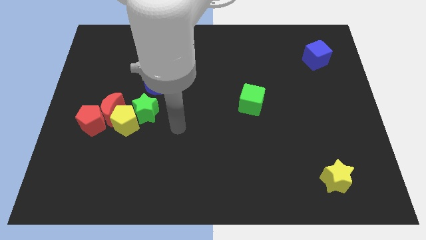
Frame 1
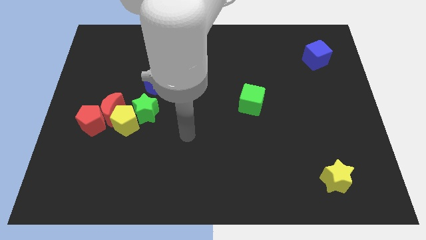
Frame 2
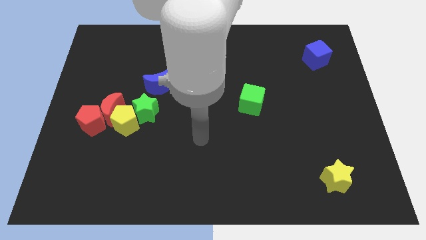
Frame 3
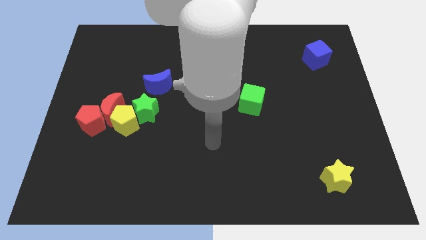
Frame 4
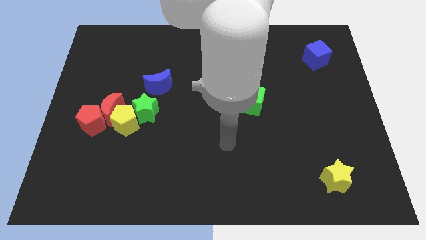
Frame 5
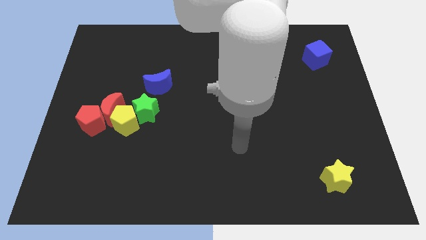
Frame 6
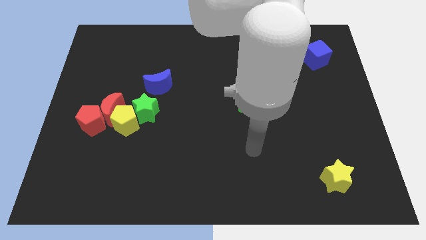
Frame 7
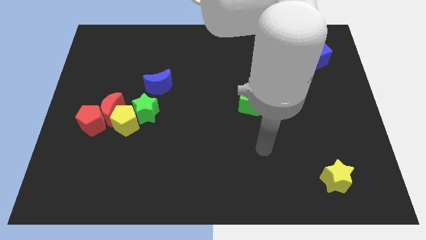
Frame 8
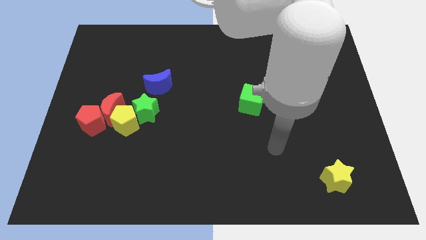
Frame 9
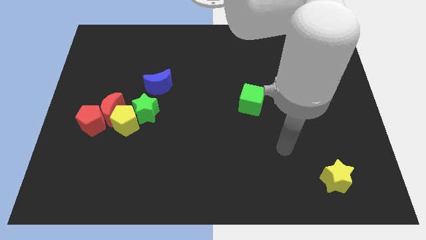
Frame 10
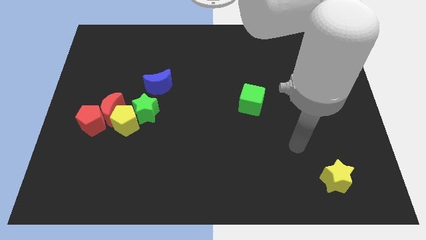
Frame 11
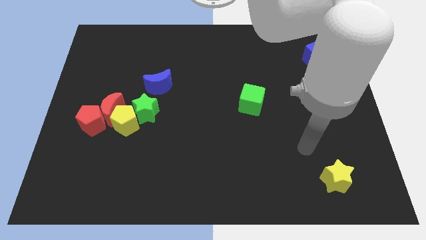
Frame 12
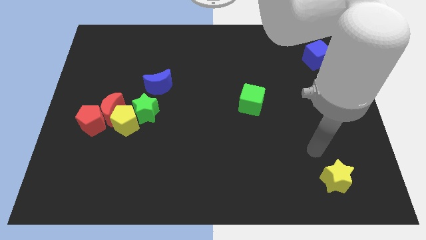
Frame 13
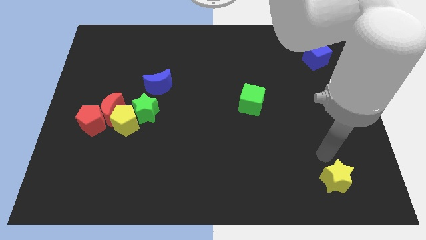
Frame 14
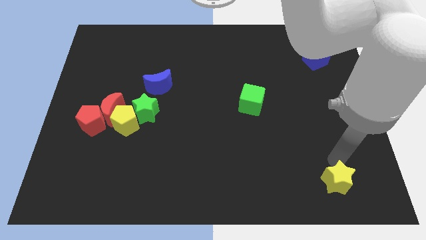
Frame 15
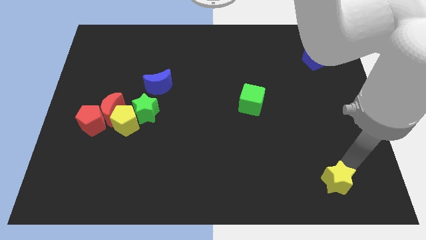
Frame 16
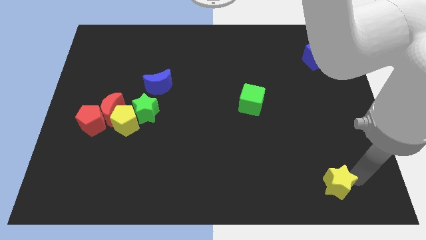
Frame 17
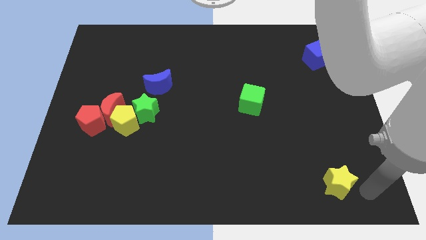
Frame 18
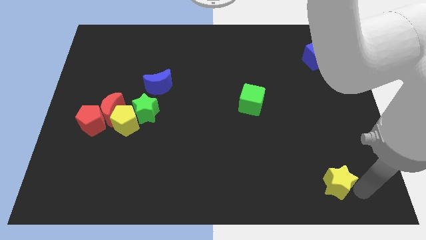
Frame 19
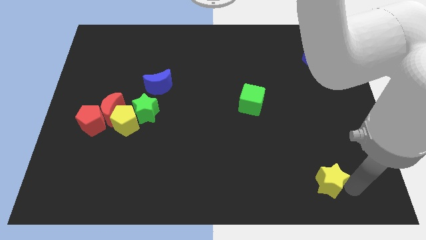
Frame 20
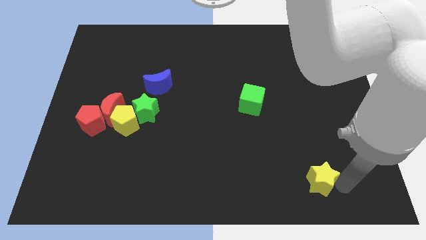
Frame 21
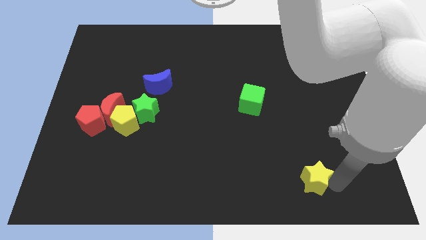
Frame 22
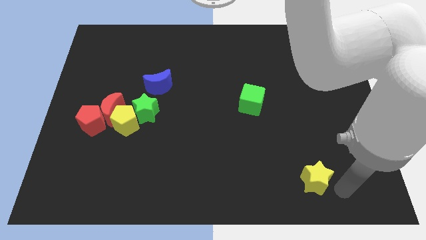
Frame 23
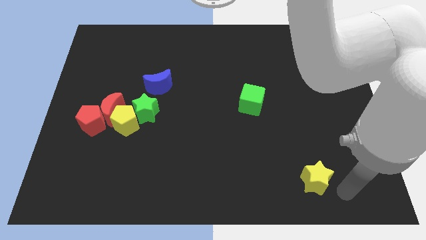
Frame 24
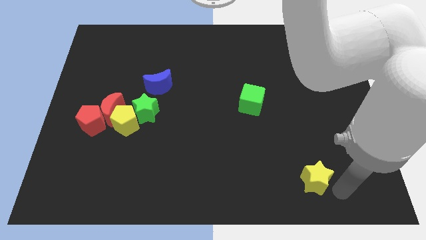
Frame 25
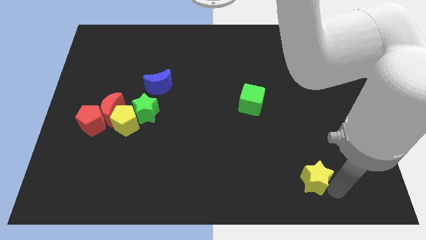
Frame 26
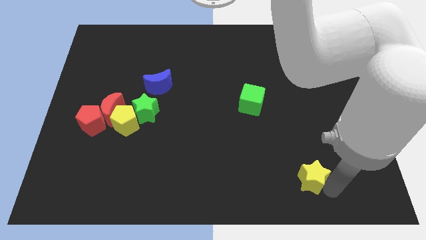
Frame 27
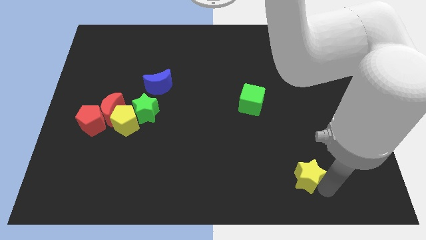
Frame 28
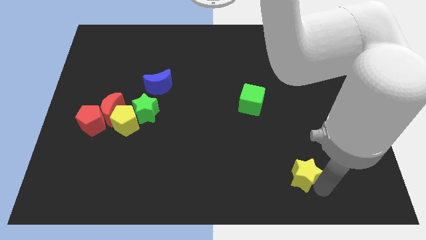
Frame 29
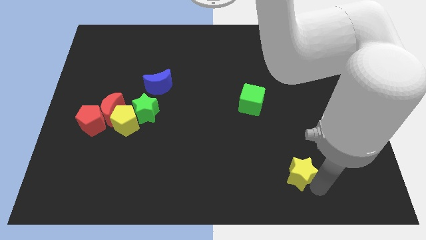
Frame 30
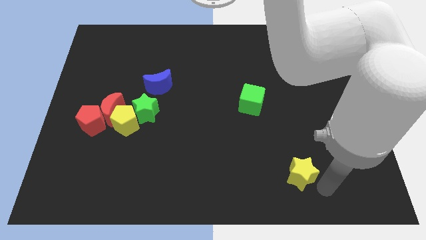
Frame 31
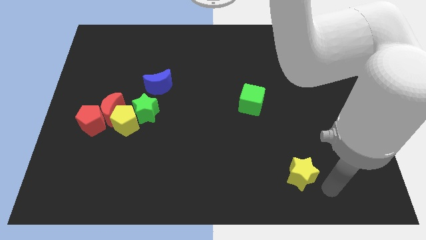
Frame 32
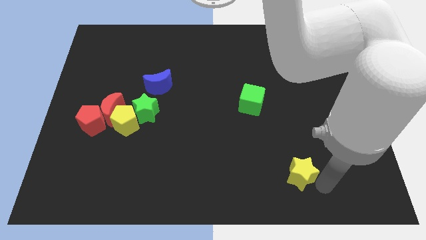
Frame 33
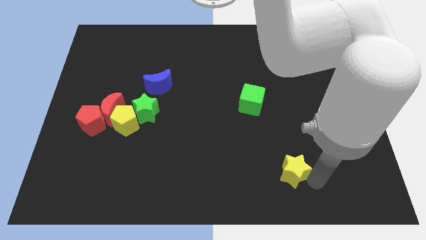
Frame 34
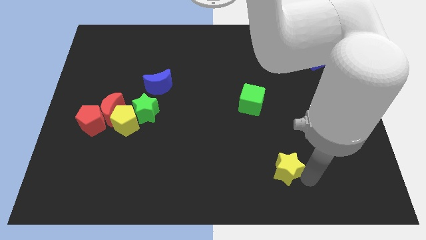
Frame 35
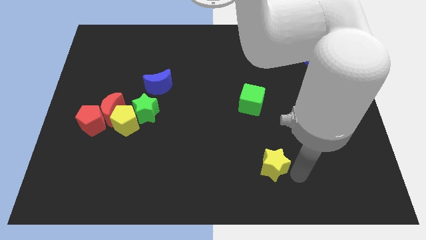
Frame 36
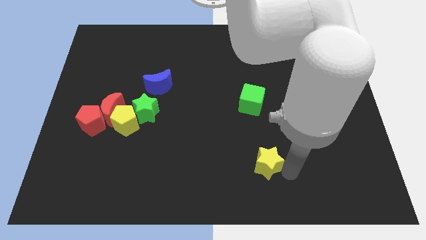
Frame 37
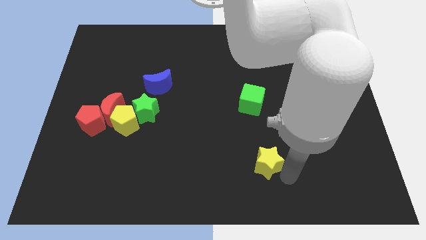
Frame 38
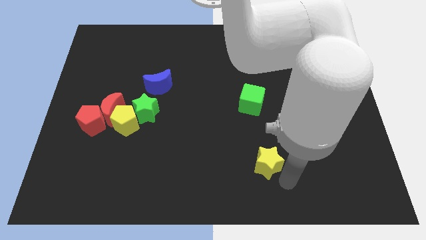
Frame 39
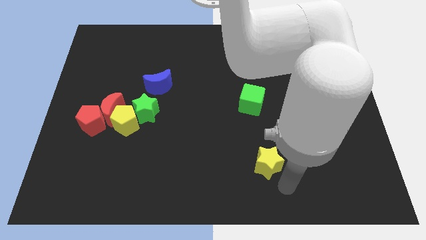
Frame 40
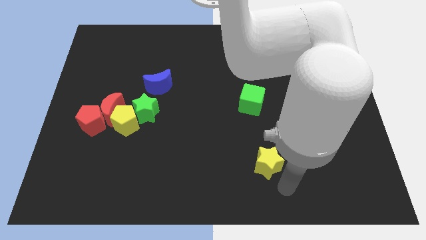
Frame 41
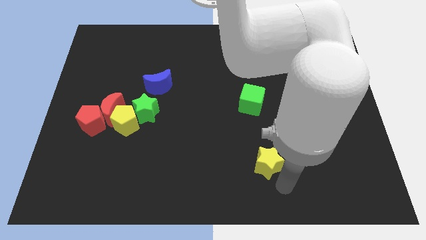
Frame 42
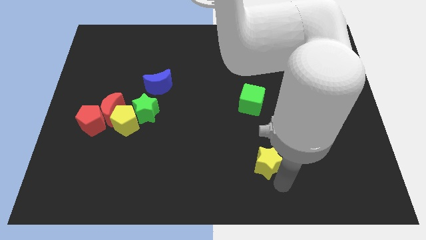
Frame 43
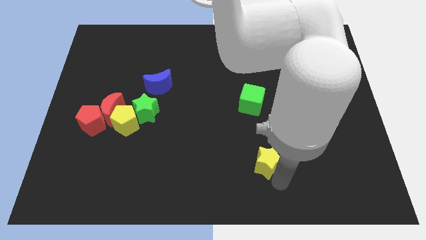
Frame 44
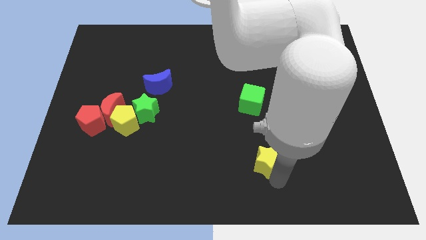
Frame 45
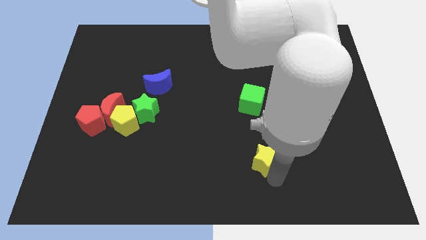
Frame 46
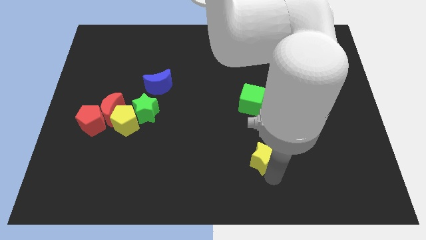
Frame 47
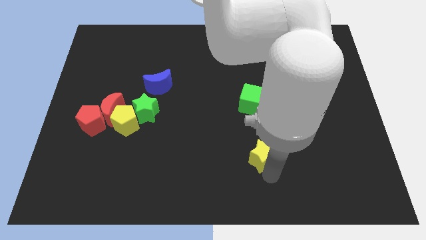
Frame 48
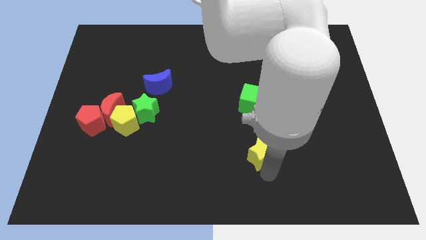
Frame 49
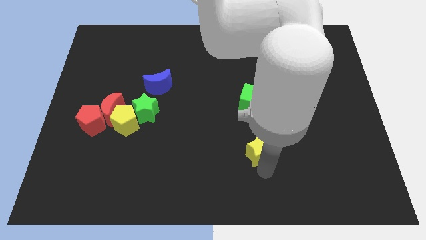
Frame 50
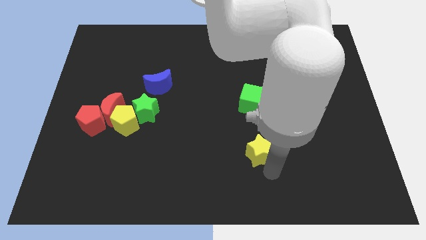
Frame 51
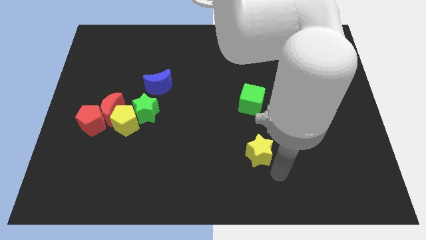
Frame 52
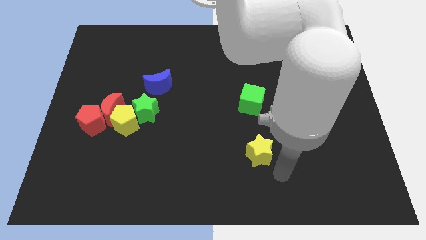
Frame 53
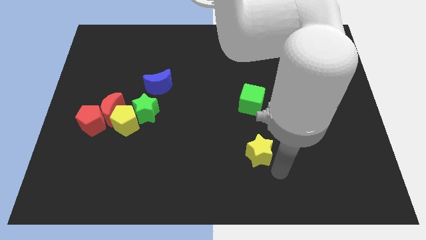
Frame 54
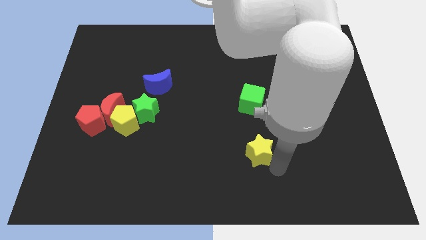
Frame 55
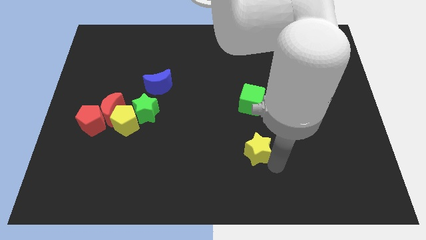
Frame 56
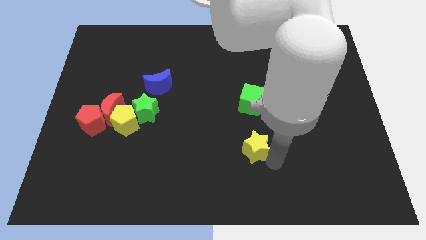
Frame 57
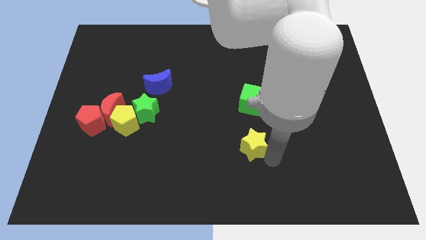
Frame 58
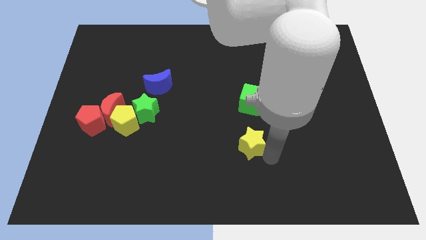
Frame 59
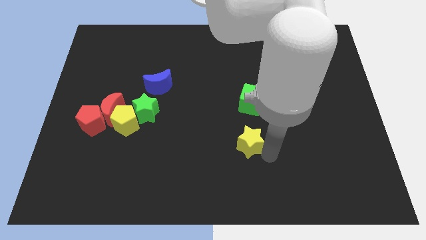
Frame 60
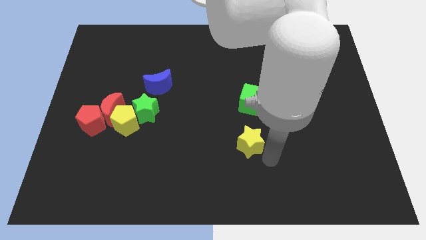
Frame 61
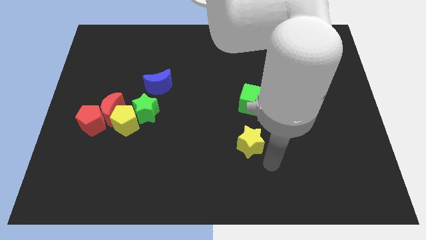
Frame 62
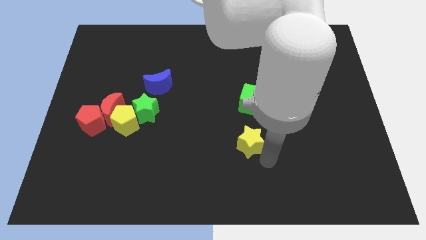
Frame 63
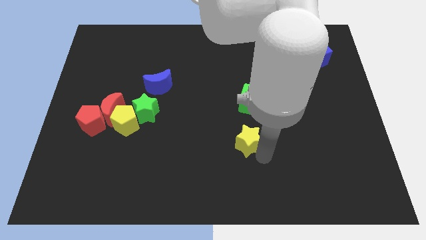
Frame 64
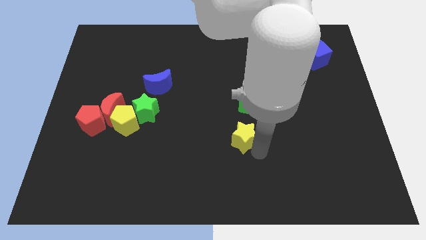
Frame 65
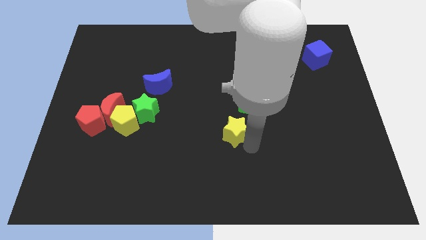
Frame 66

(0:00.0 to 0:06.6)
push the yellow star up and then to the left

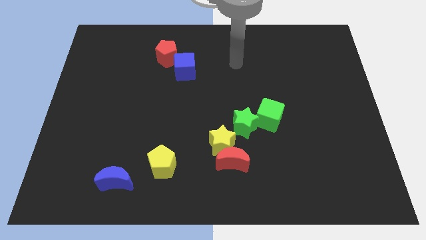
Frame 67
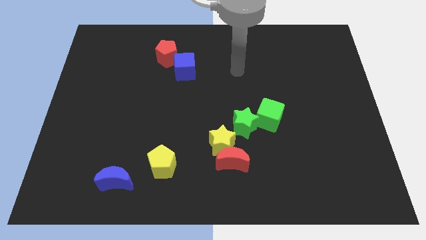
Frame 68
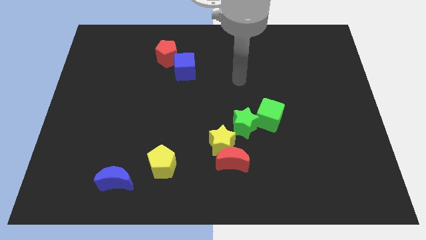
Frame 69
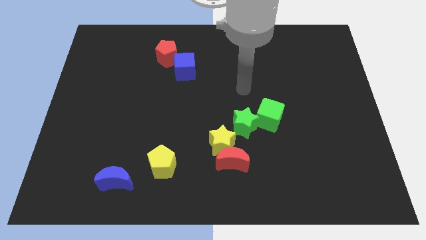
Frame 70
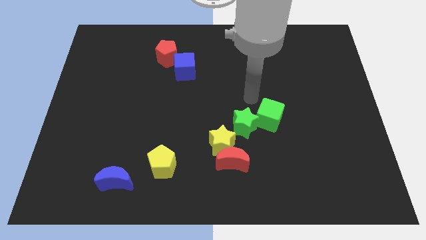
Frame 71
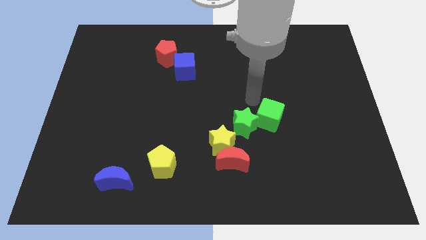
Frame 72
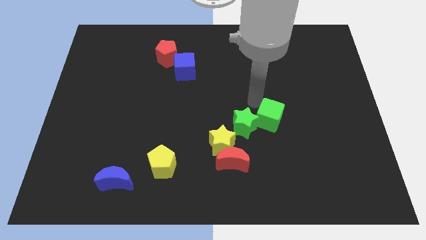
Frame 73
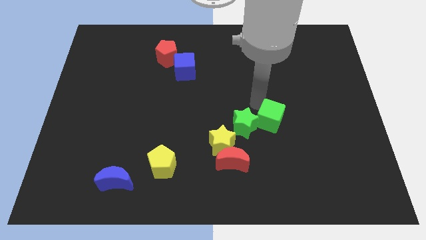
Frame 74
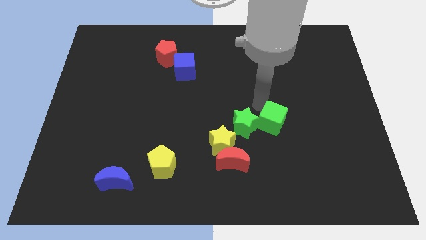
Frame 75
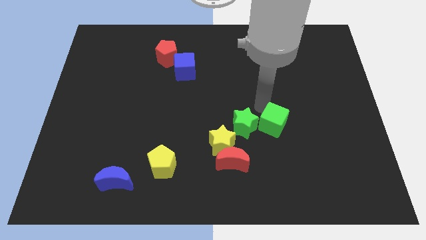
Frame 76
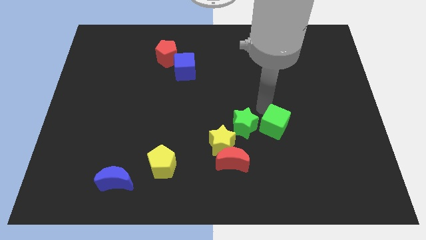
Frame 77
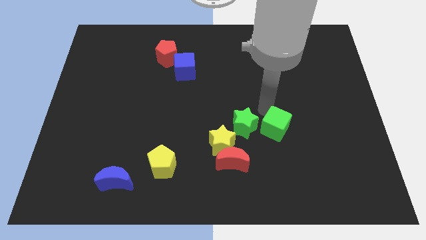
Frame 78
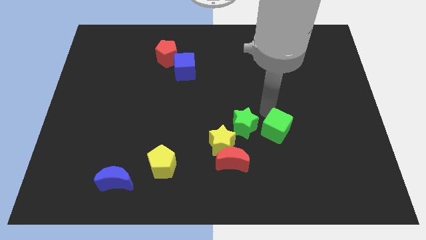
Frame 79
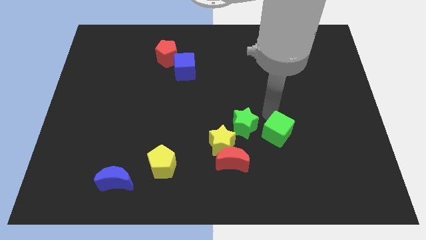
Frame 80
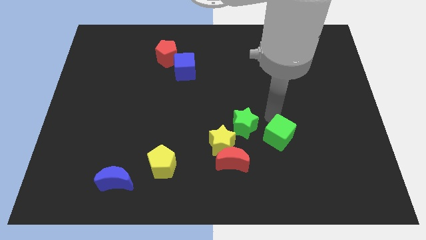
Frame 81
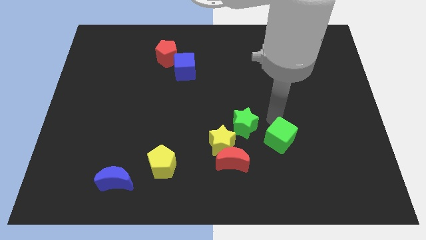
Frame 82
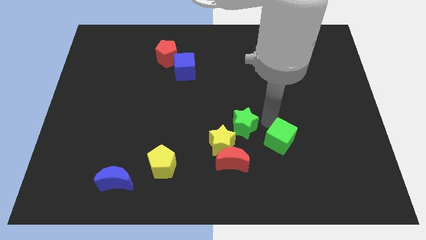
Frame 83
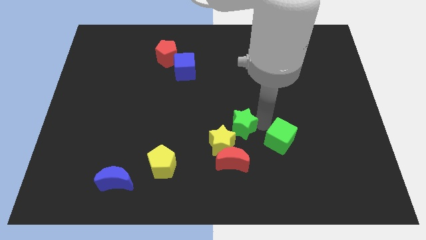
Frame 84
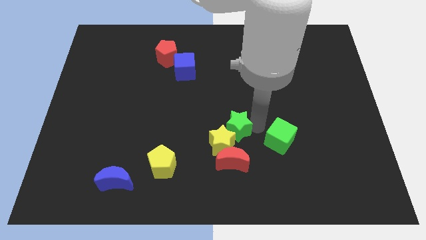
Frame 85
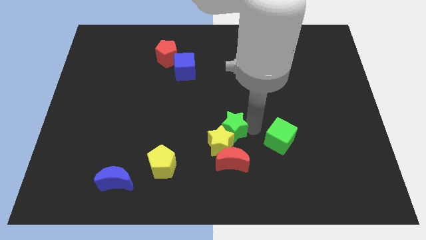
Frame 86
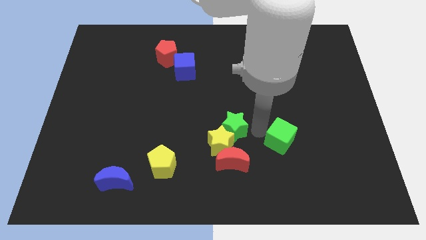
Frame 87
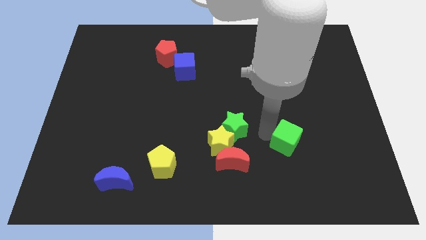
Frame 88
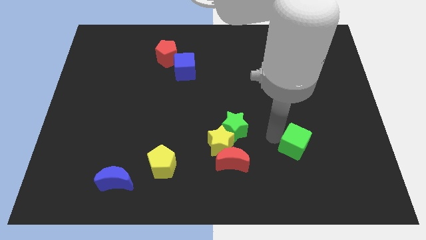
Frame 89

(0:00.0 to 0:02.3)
move the green cube diagonally downwards and right slightly
